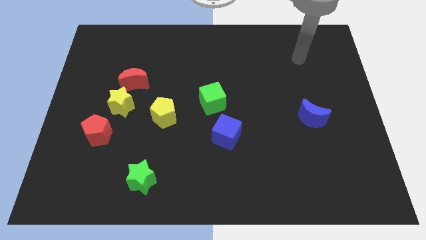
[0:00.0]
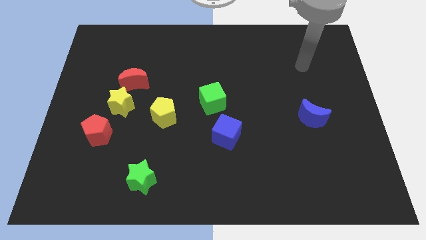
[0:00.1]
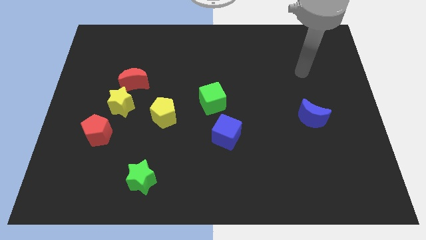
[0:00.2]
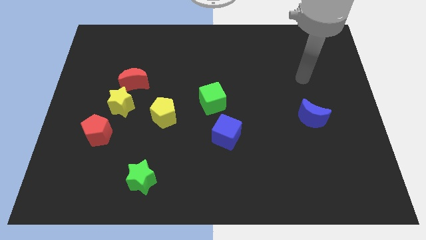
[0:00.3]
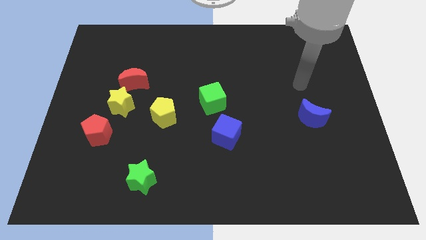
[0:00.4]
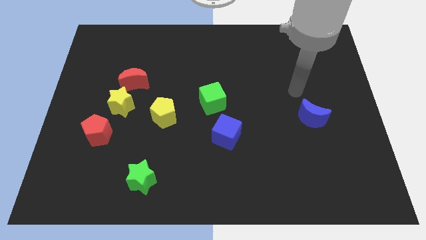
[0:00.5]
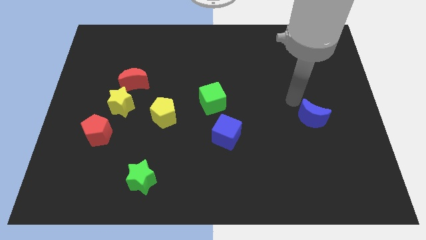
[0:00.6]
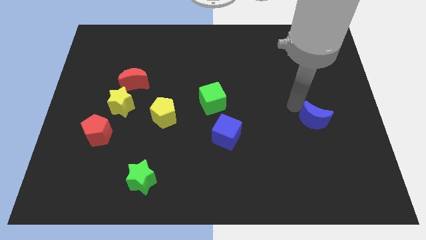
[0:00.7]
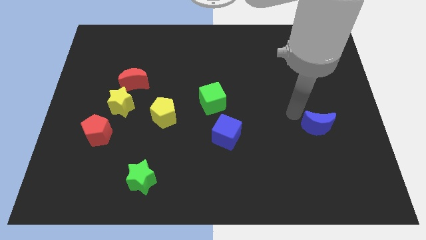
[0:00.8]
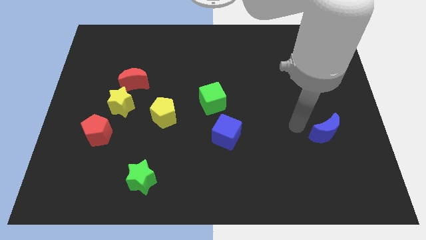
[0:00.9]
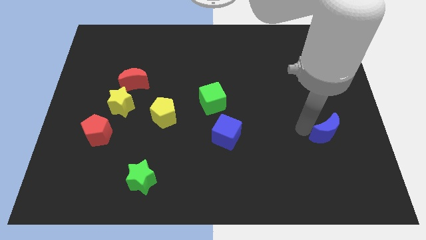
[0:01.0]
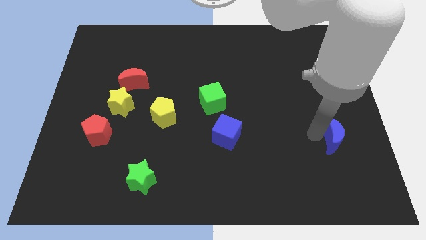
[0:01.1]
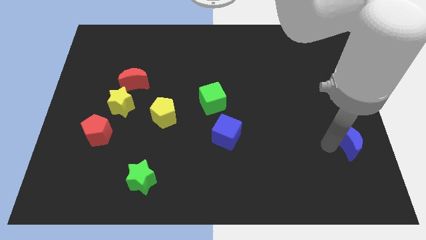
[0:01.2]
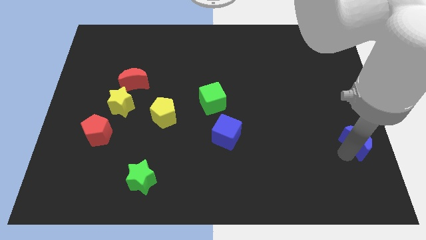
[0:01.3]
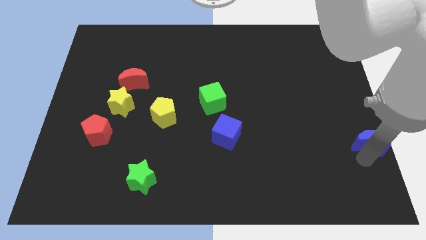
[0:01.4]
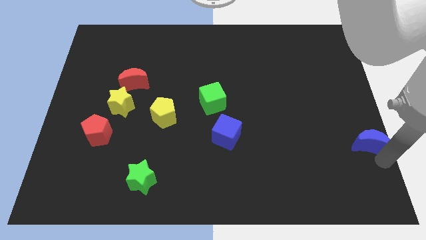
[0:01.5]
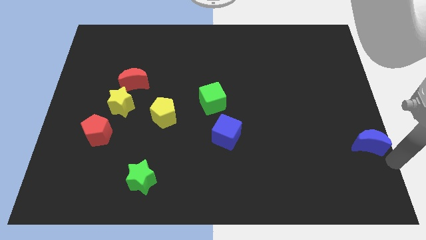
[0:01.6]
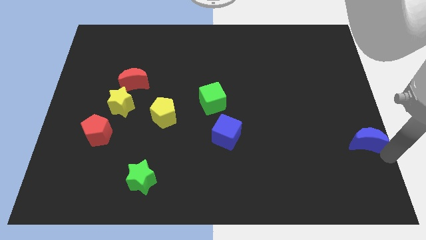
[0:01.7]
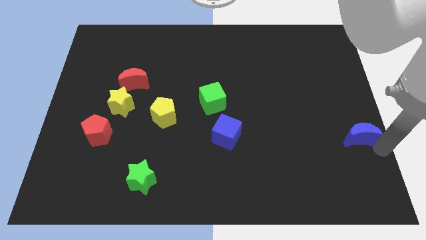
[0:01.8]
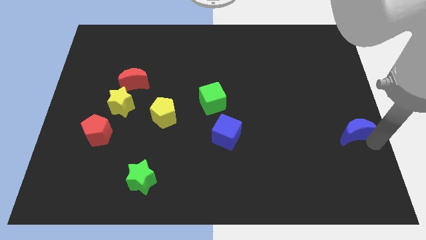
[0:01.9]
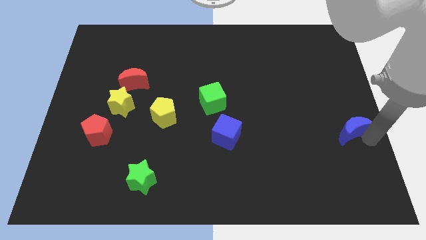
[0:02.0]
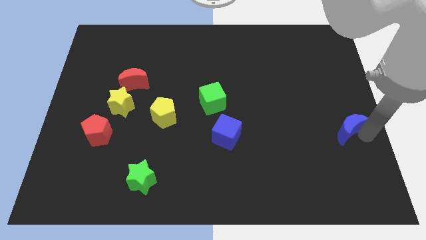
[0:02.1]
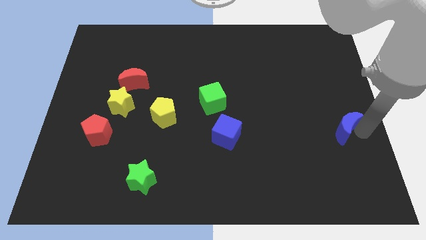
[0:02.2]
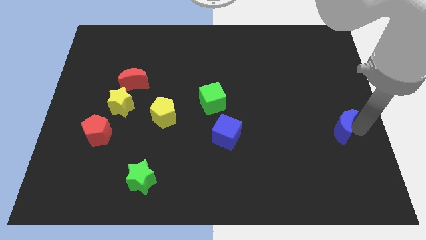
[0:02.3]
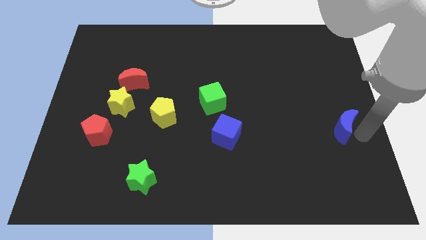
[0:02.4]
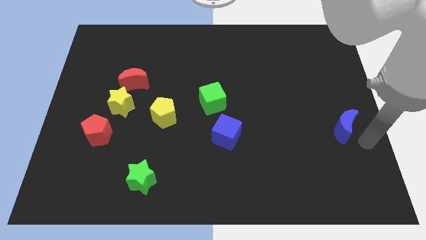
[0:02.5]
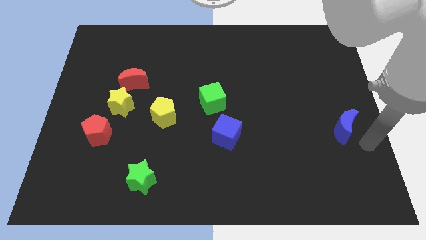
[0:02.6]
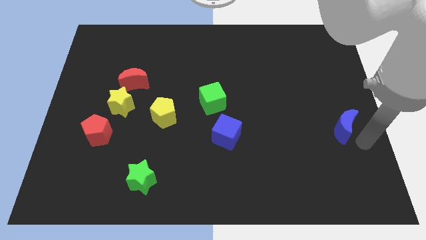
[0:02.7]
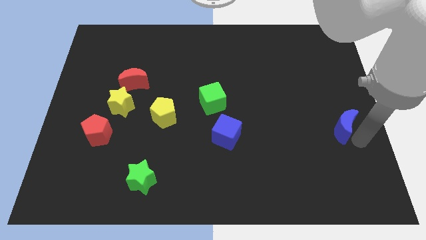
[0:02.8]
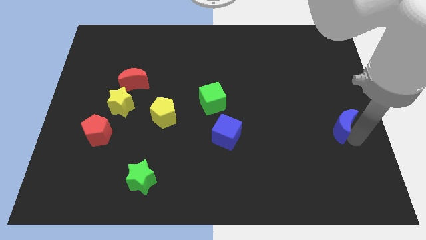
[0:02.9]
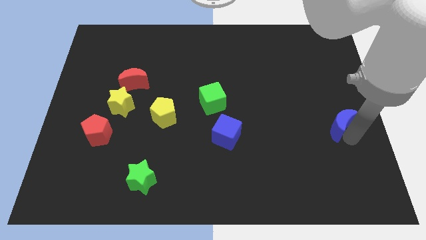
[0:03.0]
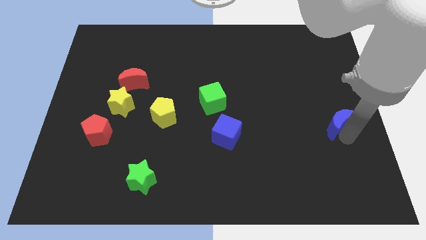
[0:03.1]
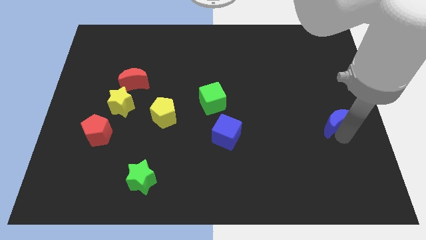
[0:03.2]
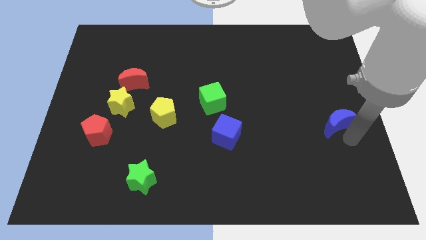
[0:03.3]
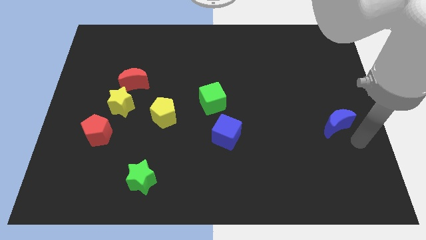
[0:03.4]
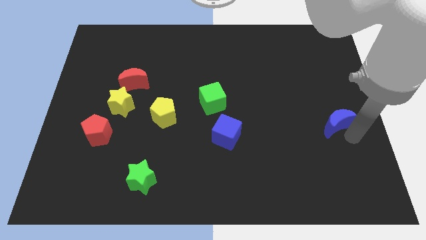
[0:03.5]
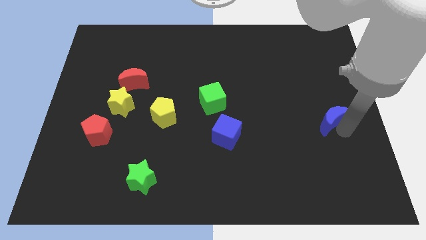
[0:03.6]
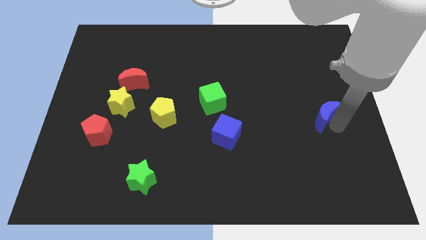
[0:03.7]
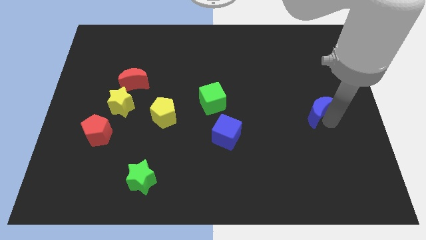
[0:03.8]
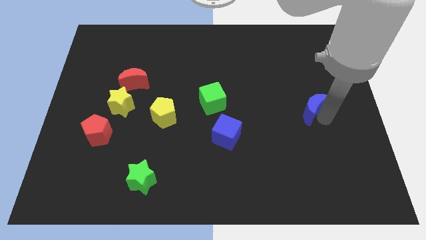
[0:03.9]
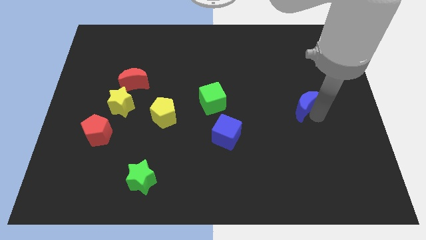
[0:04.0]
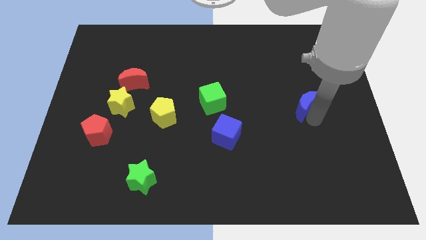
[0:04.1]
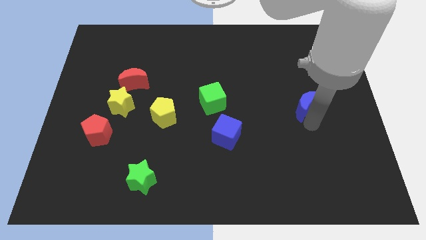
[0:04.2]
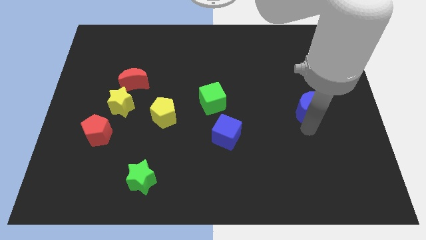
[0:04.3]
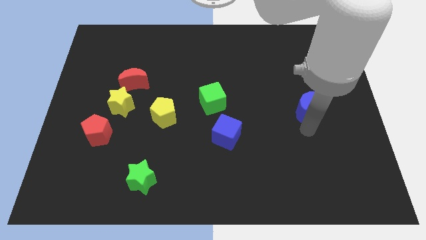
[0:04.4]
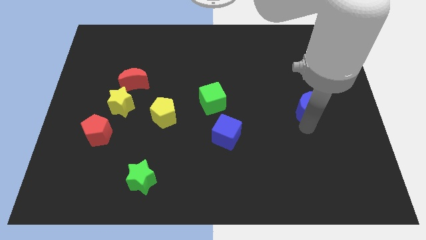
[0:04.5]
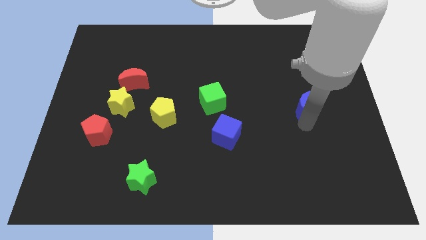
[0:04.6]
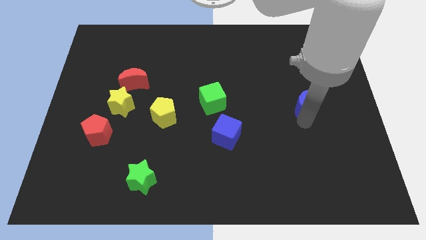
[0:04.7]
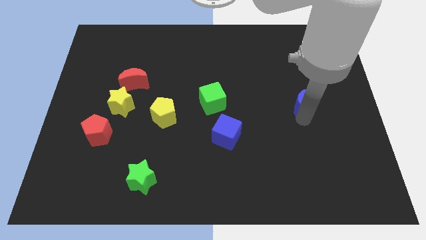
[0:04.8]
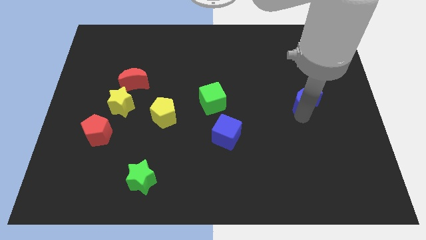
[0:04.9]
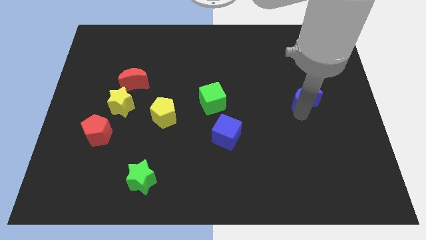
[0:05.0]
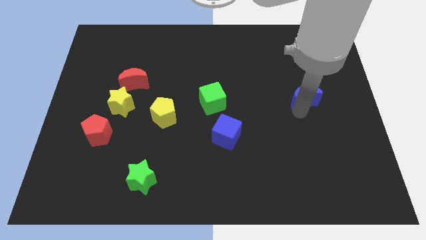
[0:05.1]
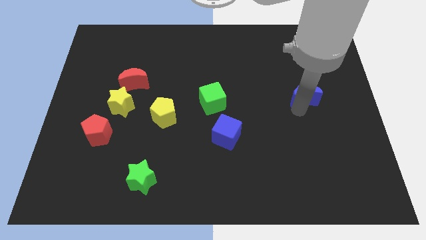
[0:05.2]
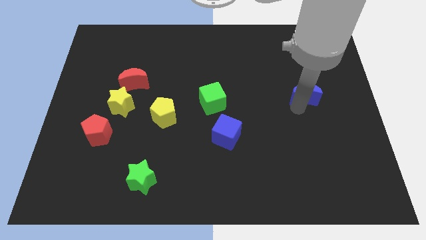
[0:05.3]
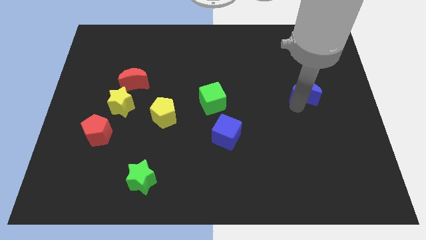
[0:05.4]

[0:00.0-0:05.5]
slightly slide the blue moon up

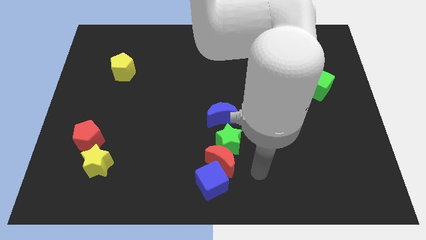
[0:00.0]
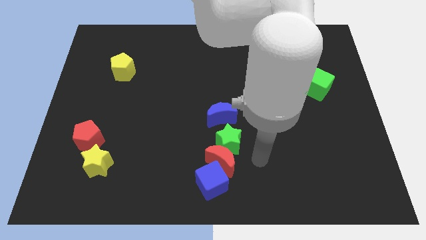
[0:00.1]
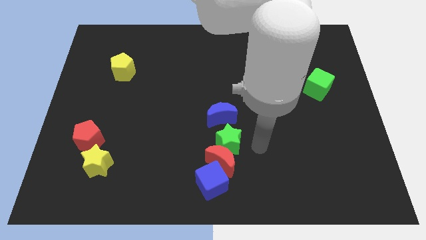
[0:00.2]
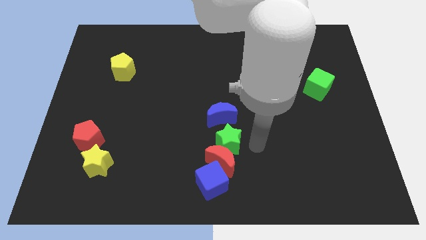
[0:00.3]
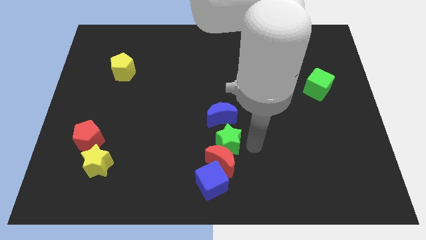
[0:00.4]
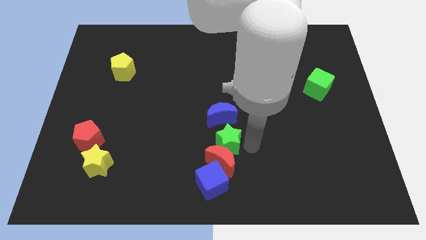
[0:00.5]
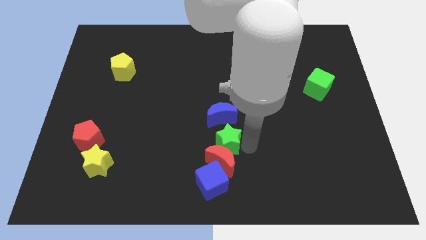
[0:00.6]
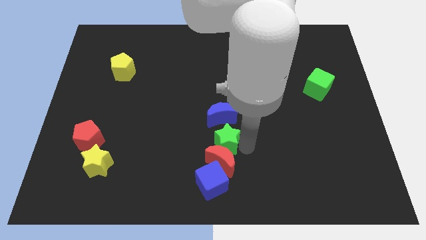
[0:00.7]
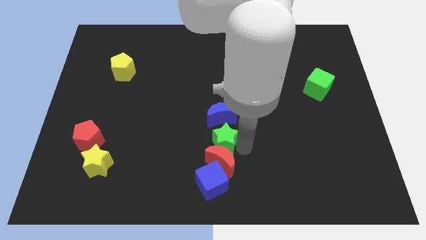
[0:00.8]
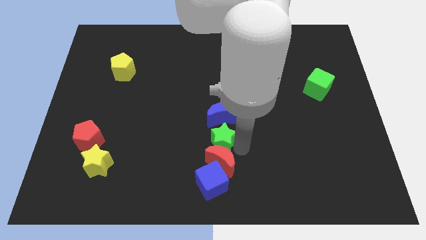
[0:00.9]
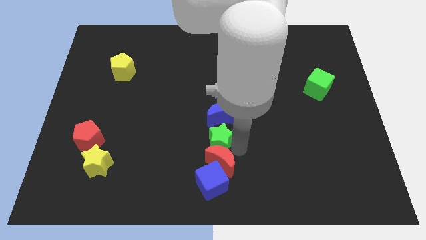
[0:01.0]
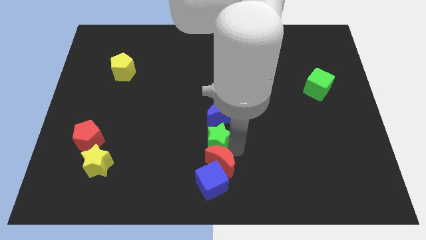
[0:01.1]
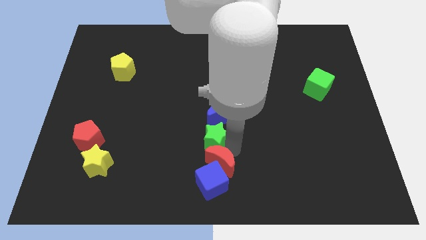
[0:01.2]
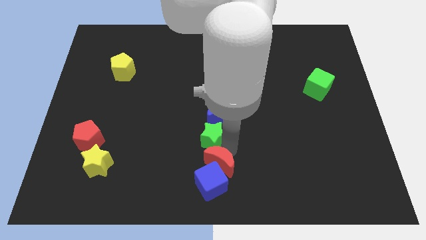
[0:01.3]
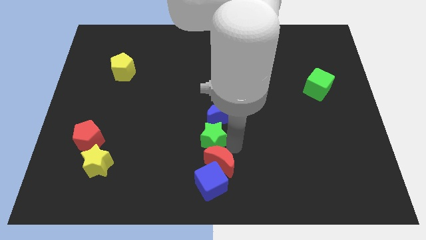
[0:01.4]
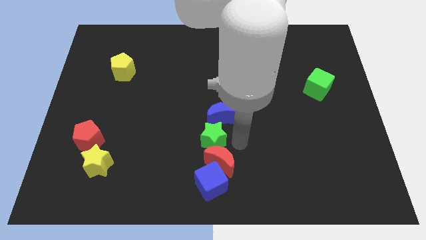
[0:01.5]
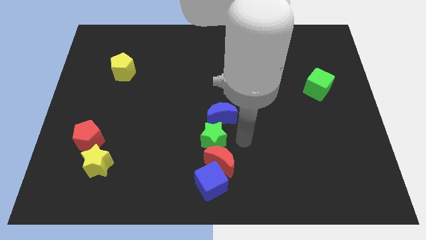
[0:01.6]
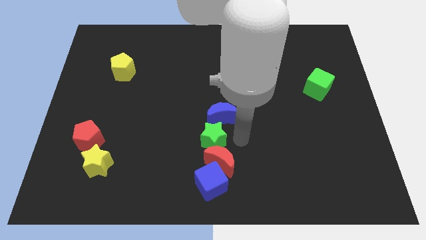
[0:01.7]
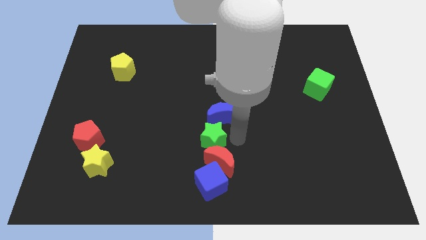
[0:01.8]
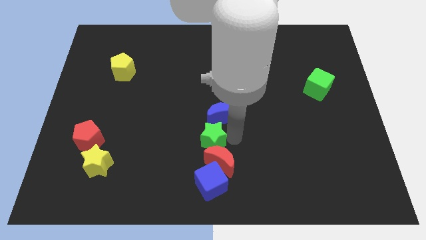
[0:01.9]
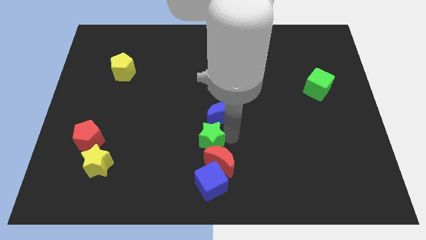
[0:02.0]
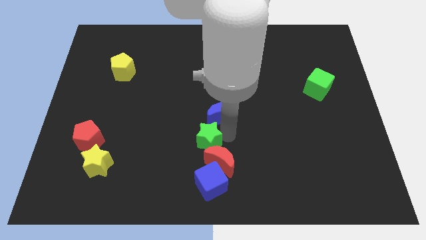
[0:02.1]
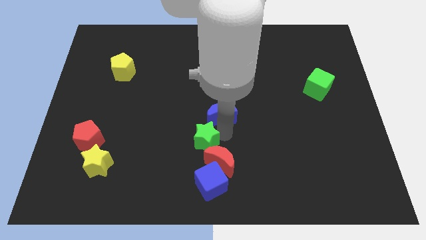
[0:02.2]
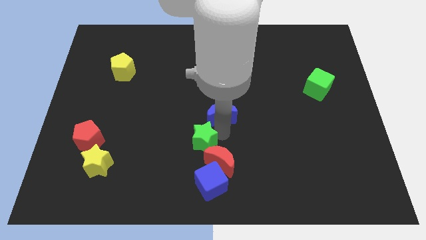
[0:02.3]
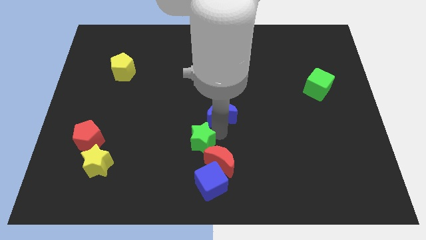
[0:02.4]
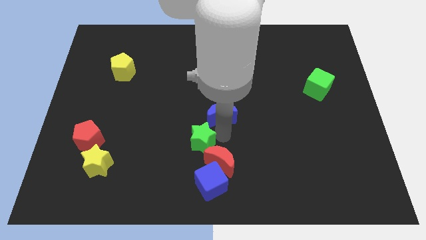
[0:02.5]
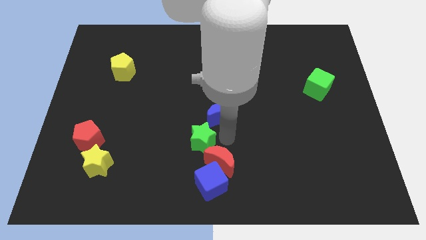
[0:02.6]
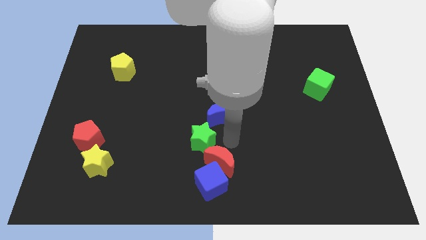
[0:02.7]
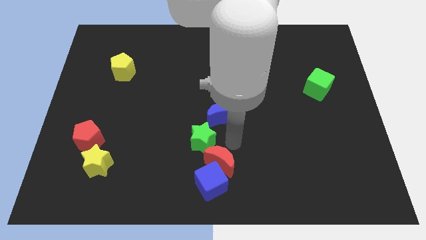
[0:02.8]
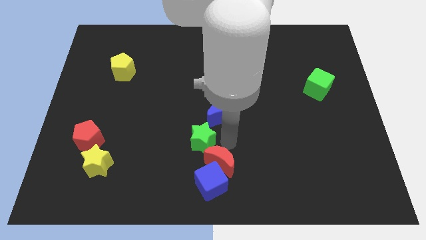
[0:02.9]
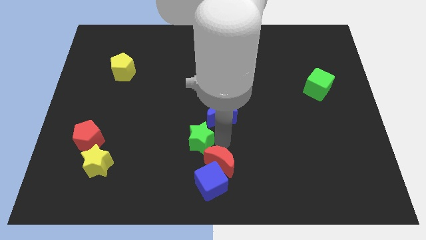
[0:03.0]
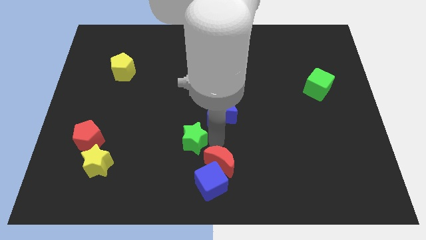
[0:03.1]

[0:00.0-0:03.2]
slide the green star somewhat to the left
